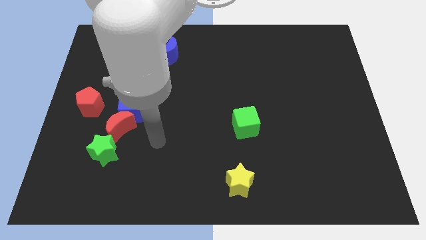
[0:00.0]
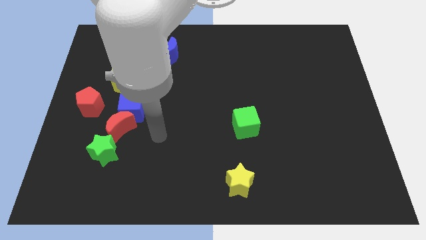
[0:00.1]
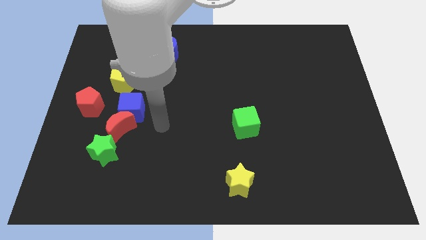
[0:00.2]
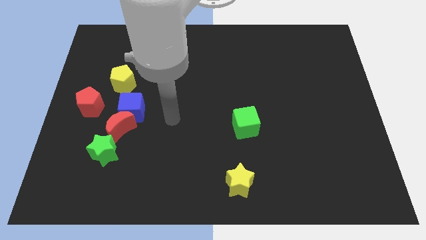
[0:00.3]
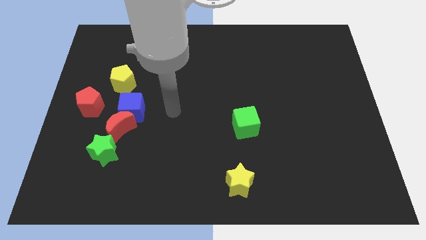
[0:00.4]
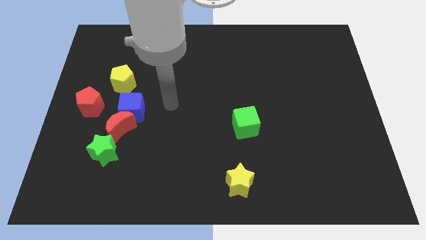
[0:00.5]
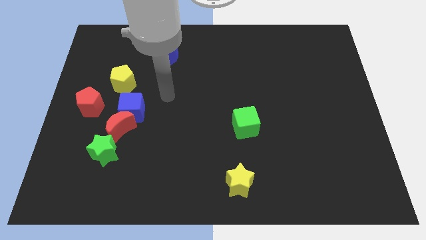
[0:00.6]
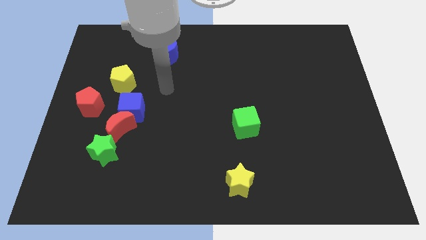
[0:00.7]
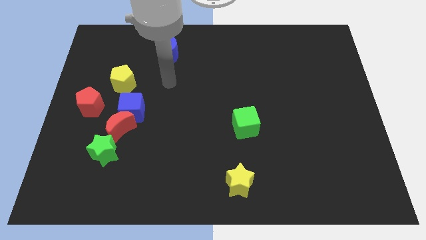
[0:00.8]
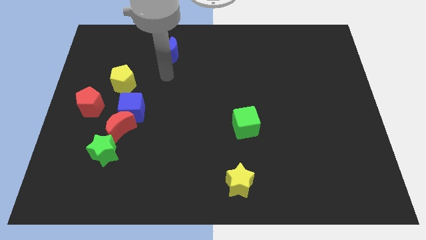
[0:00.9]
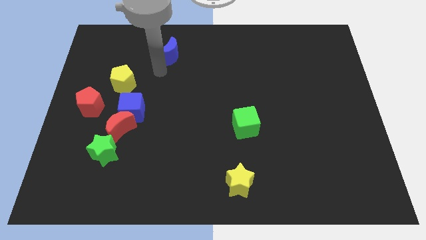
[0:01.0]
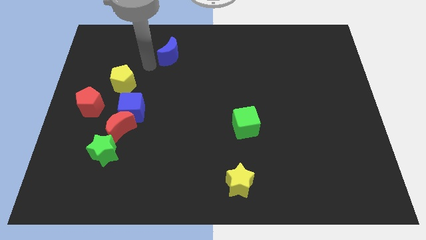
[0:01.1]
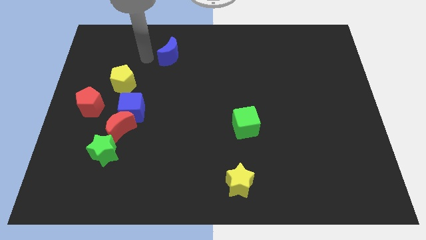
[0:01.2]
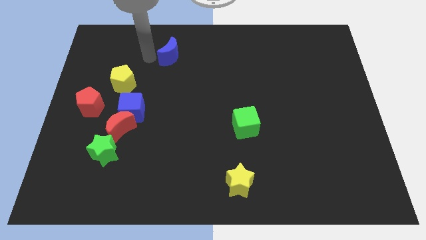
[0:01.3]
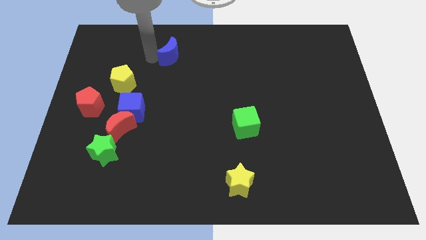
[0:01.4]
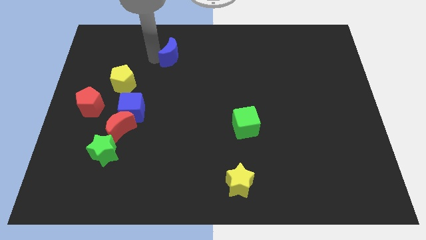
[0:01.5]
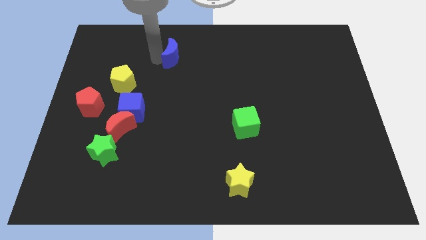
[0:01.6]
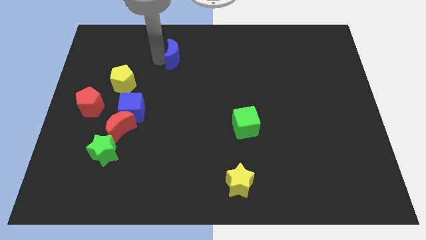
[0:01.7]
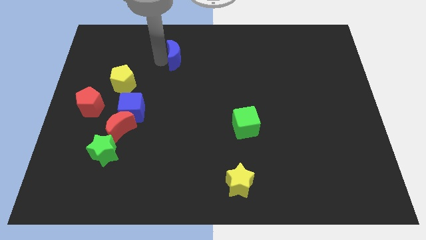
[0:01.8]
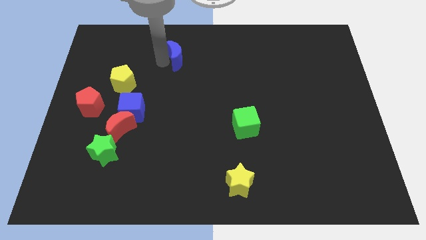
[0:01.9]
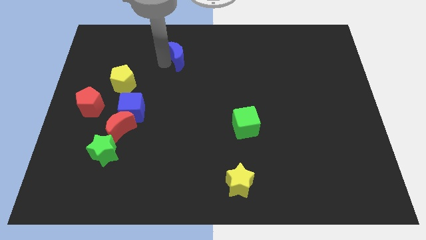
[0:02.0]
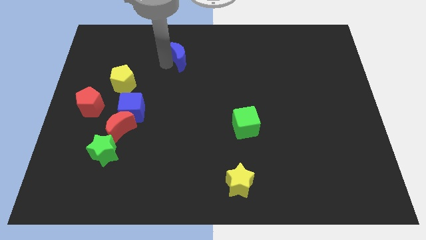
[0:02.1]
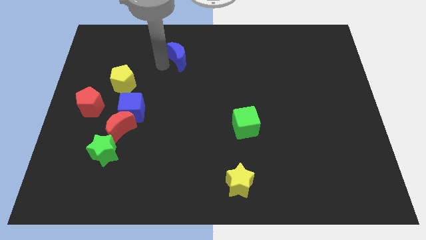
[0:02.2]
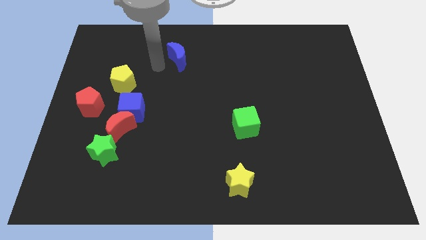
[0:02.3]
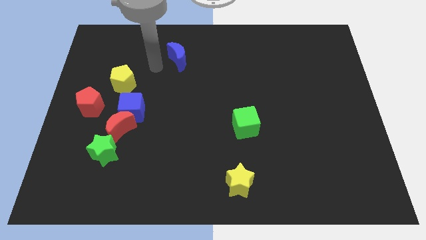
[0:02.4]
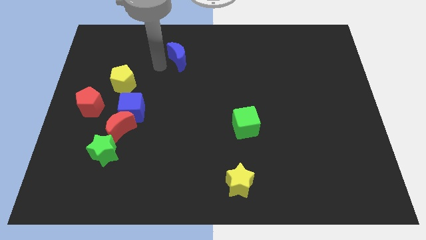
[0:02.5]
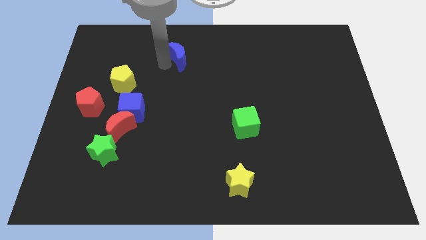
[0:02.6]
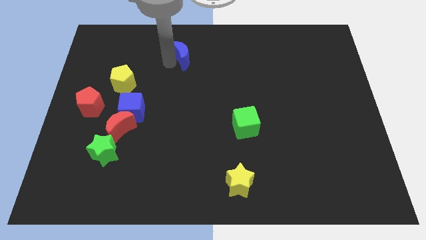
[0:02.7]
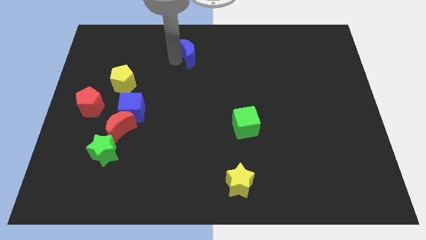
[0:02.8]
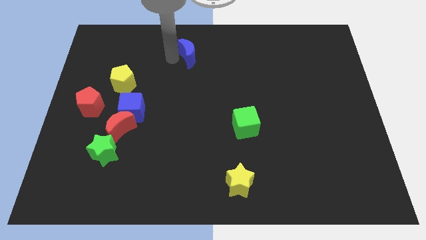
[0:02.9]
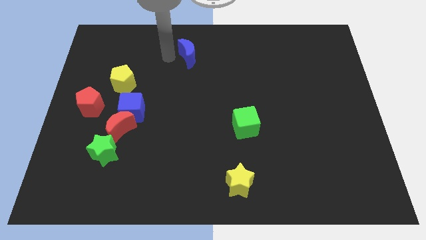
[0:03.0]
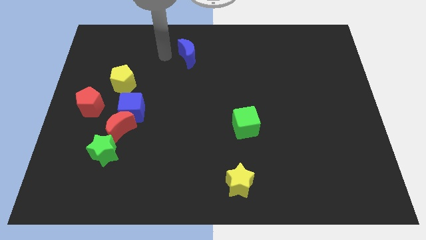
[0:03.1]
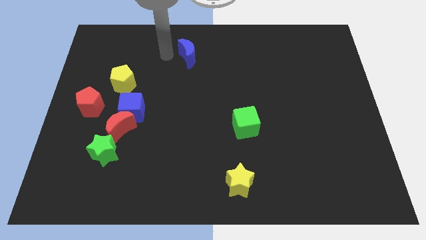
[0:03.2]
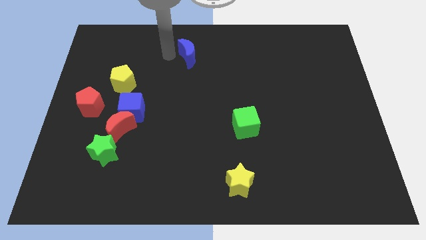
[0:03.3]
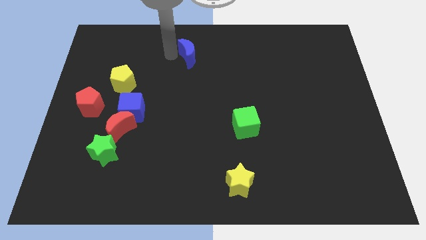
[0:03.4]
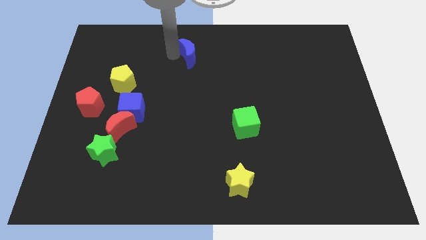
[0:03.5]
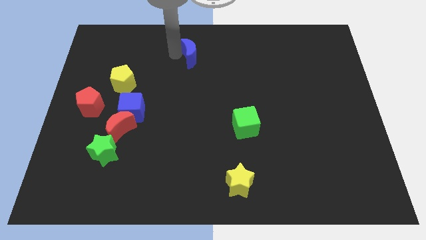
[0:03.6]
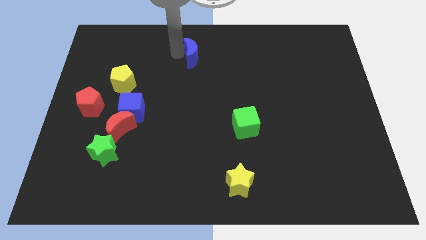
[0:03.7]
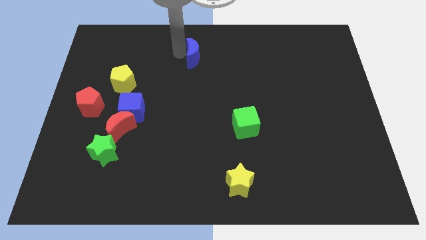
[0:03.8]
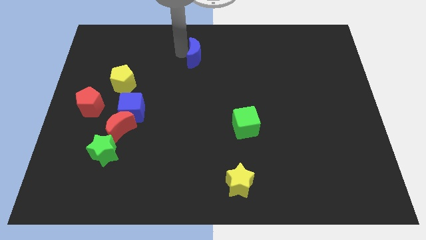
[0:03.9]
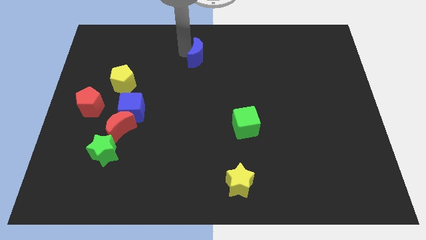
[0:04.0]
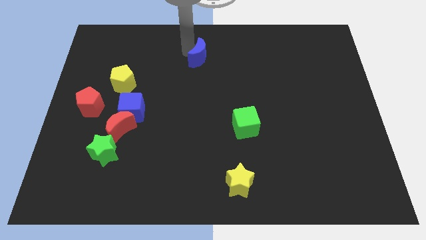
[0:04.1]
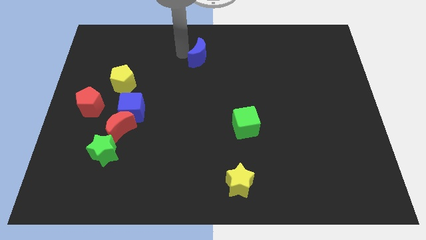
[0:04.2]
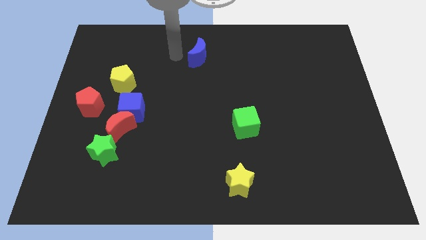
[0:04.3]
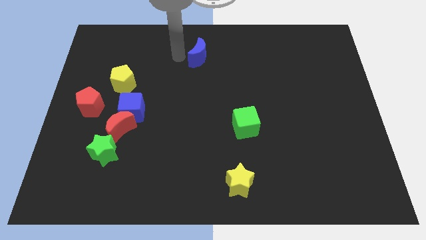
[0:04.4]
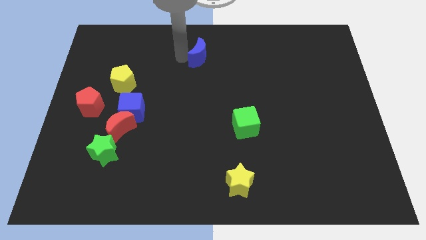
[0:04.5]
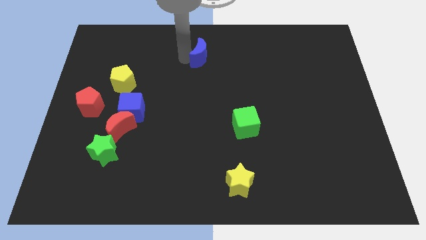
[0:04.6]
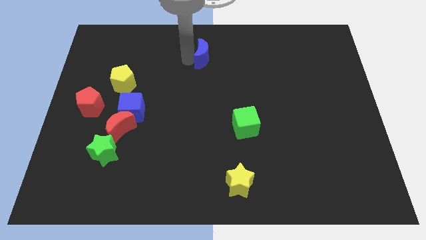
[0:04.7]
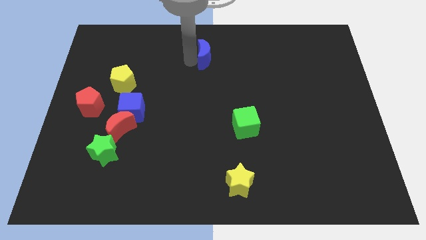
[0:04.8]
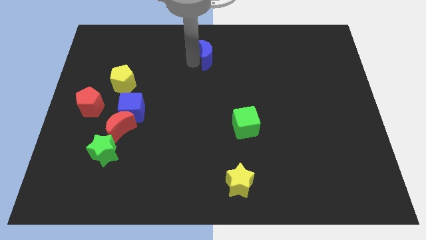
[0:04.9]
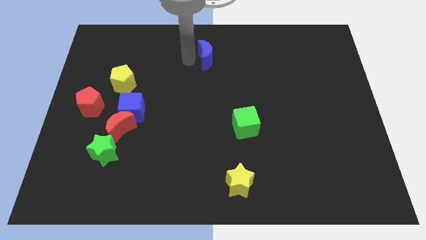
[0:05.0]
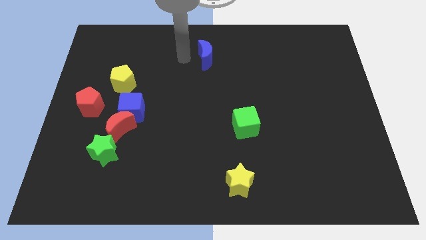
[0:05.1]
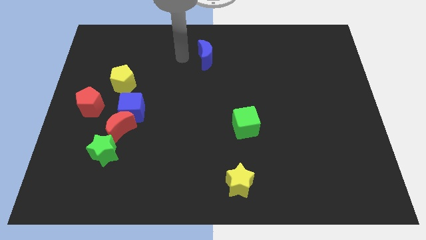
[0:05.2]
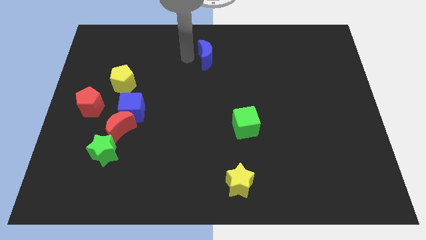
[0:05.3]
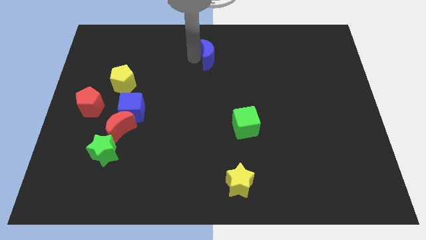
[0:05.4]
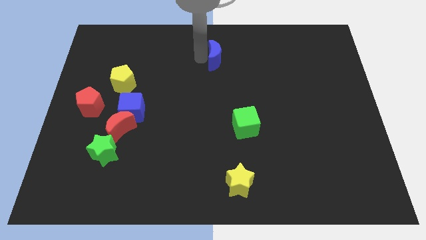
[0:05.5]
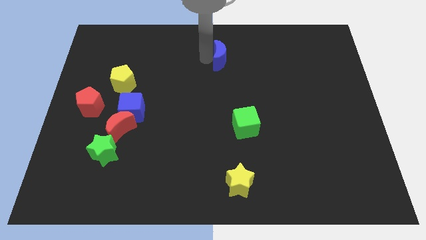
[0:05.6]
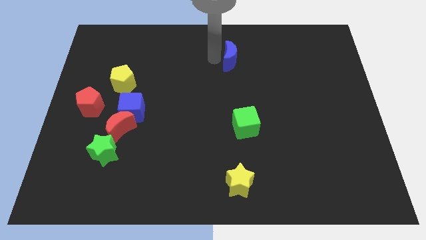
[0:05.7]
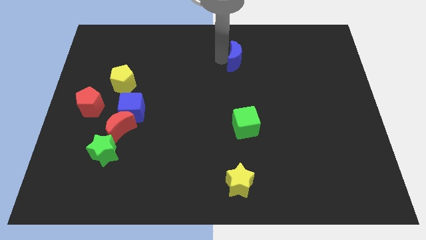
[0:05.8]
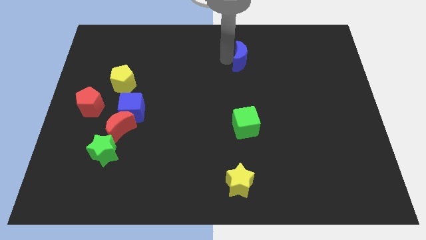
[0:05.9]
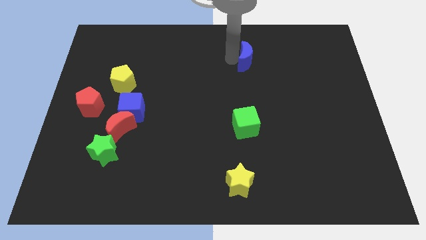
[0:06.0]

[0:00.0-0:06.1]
move the blue moon to the right

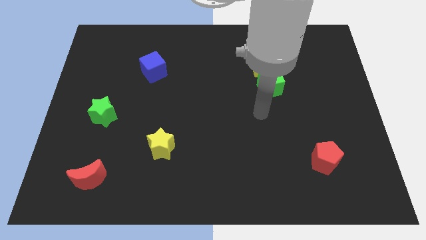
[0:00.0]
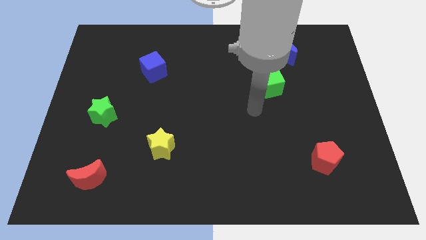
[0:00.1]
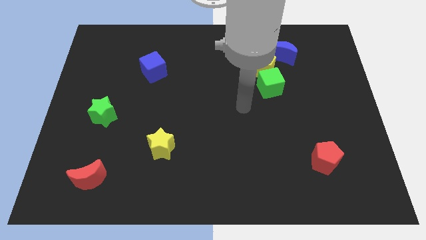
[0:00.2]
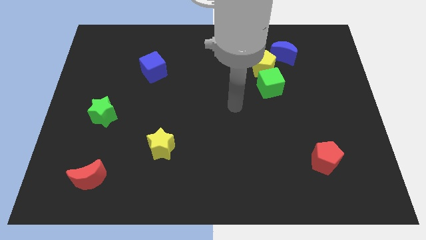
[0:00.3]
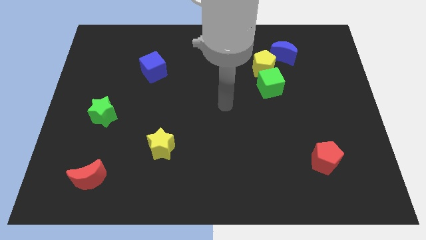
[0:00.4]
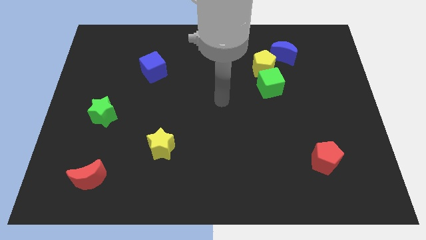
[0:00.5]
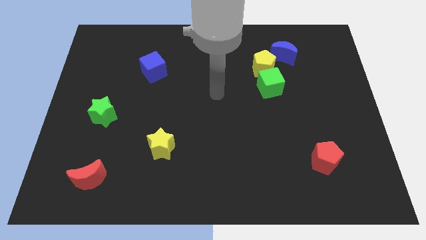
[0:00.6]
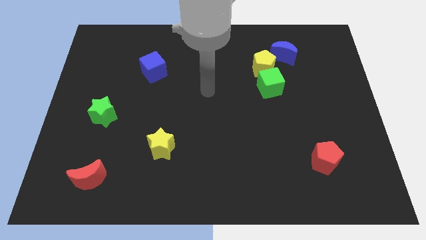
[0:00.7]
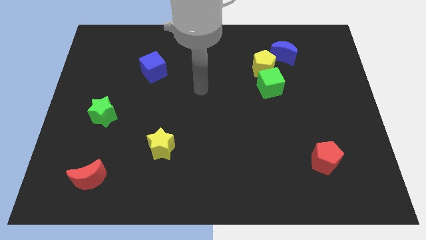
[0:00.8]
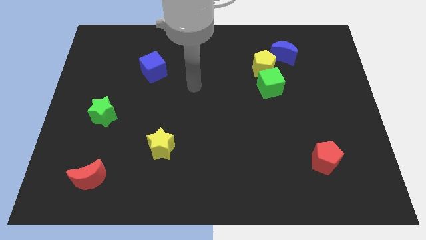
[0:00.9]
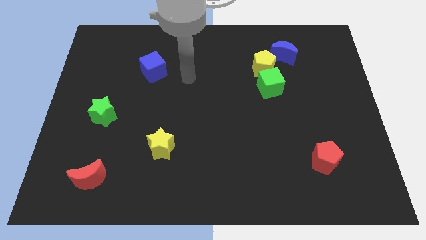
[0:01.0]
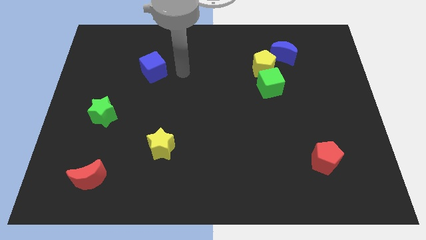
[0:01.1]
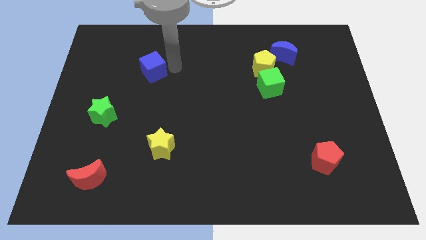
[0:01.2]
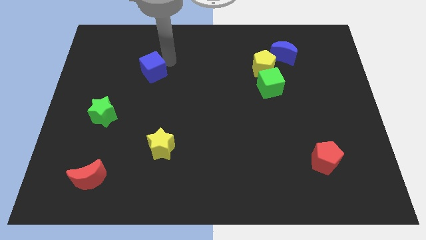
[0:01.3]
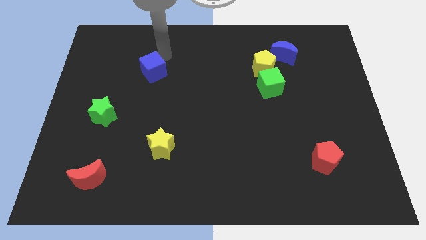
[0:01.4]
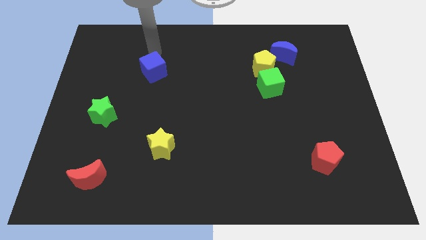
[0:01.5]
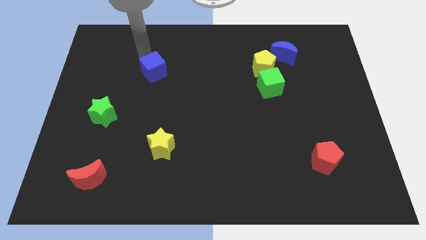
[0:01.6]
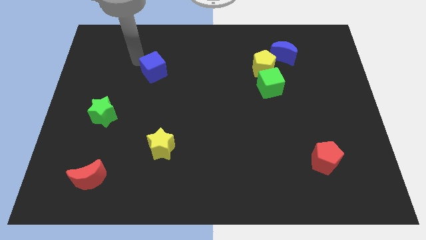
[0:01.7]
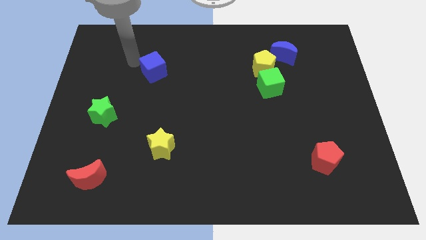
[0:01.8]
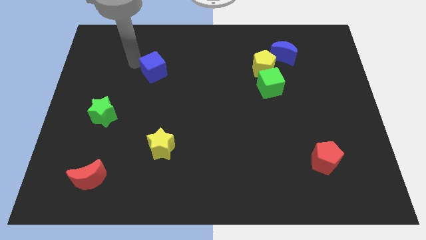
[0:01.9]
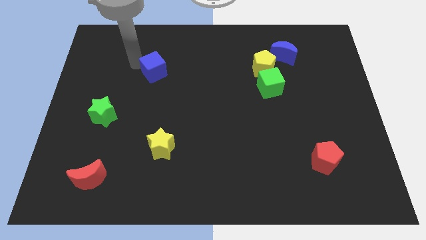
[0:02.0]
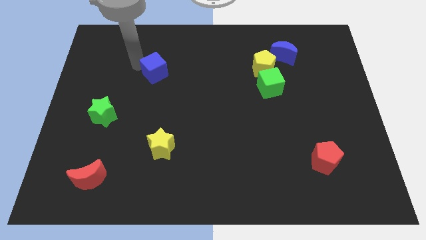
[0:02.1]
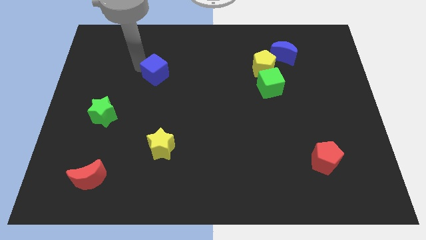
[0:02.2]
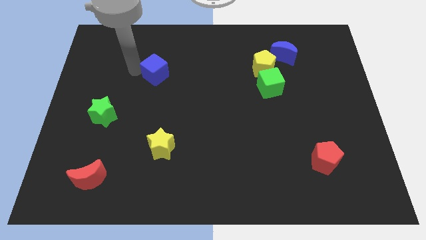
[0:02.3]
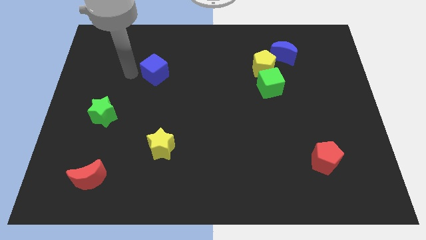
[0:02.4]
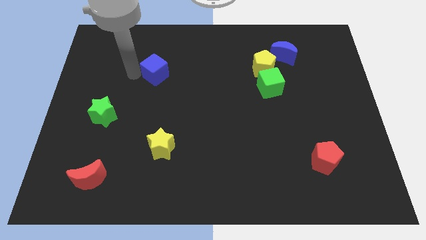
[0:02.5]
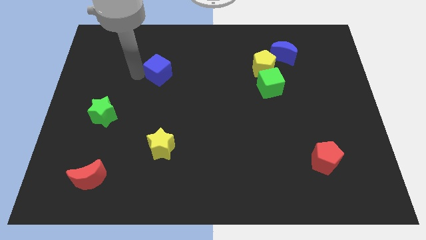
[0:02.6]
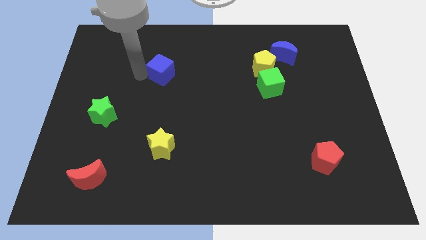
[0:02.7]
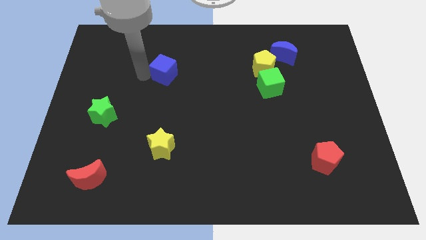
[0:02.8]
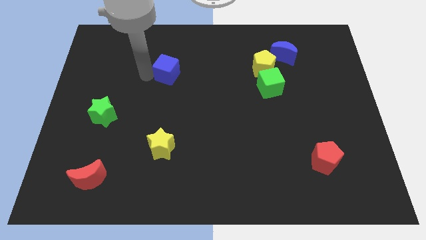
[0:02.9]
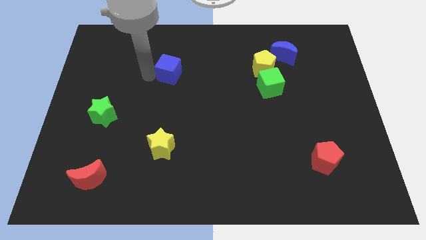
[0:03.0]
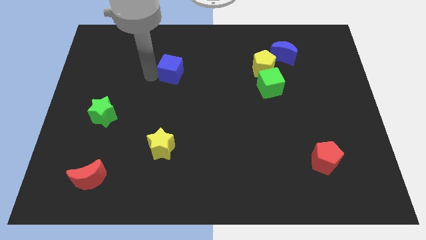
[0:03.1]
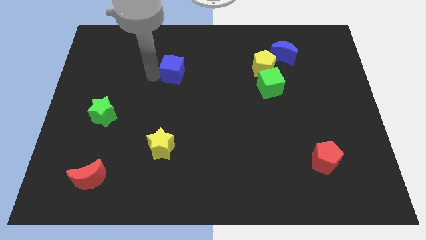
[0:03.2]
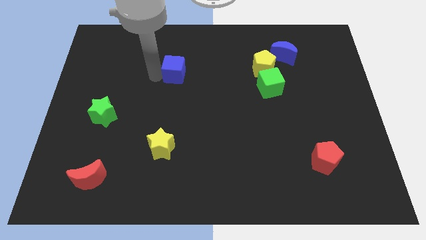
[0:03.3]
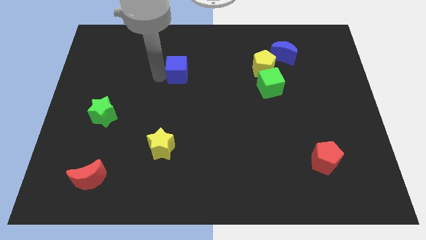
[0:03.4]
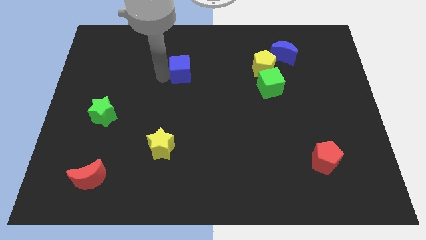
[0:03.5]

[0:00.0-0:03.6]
push the blue cube somewhat to the right
